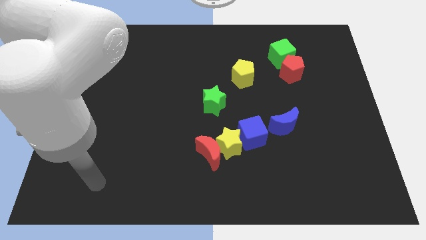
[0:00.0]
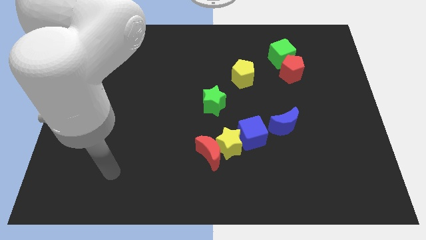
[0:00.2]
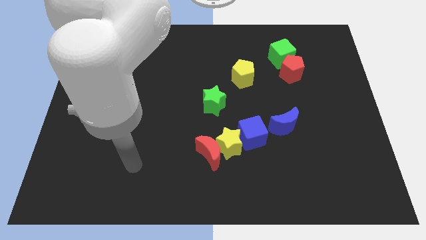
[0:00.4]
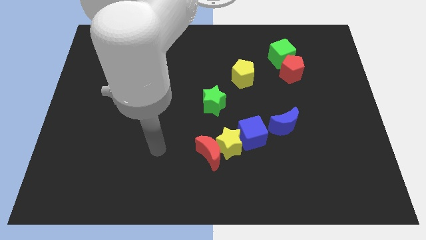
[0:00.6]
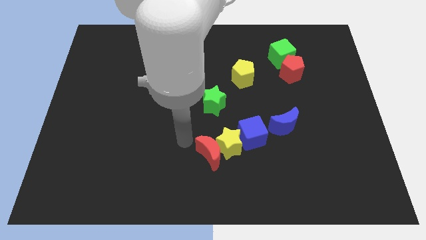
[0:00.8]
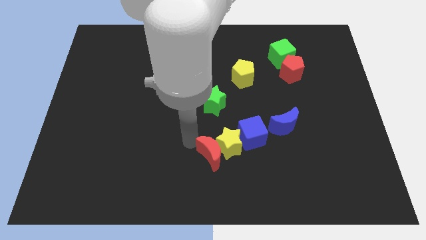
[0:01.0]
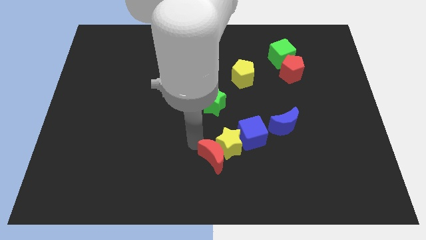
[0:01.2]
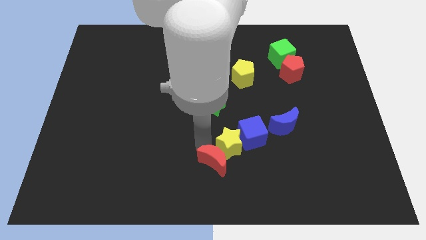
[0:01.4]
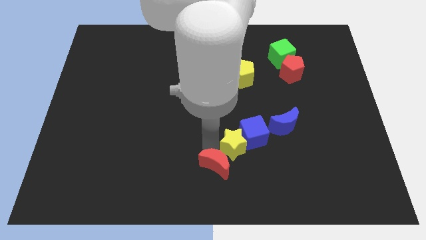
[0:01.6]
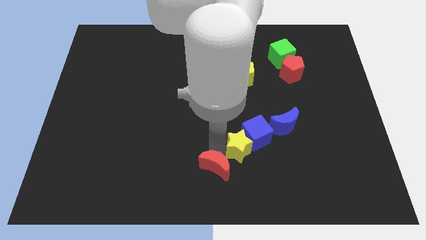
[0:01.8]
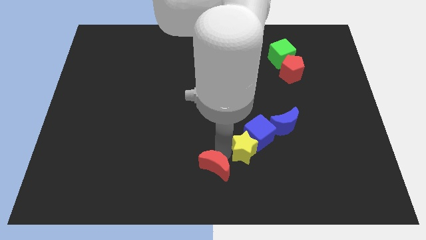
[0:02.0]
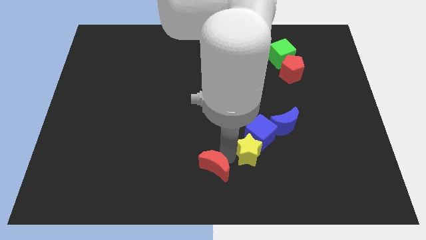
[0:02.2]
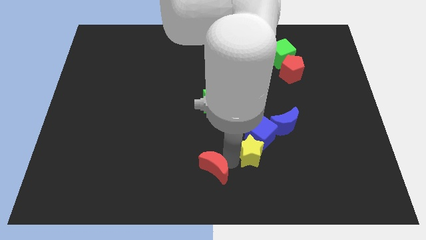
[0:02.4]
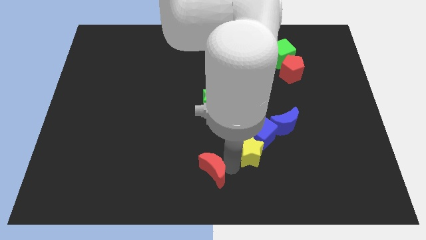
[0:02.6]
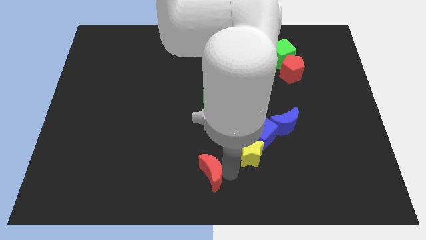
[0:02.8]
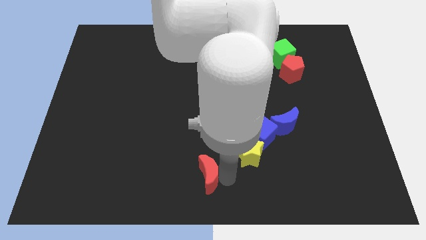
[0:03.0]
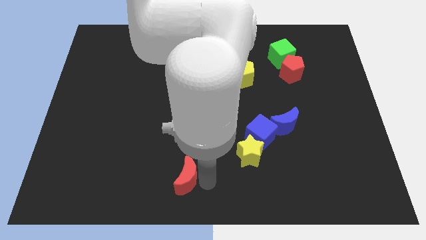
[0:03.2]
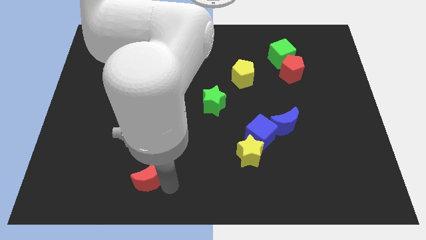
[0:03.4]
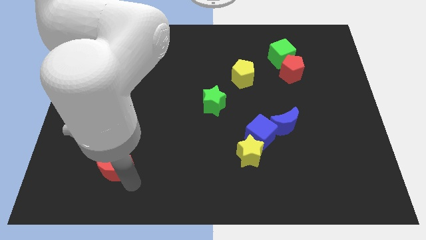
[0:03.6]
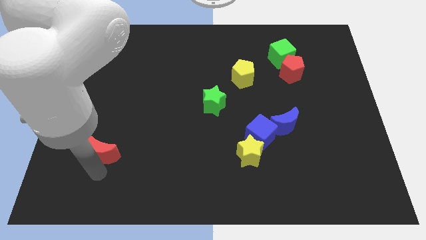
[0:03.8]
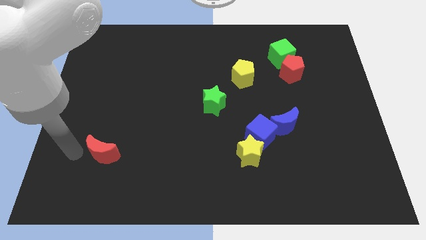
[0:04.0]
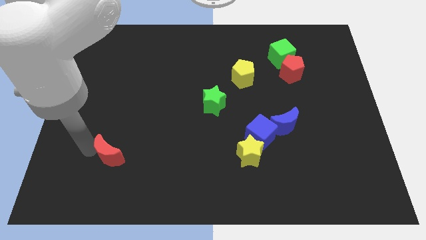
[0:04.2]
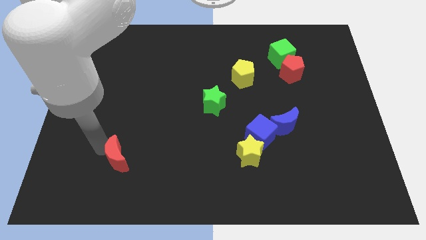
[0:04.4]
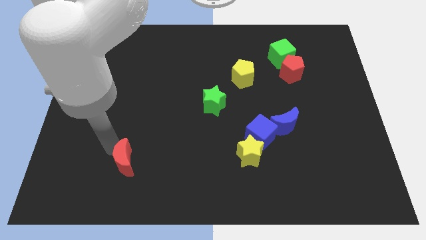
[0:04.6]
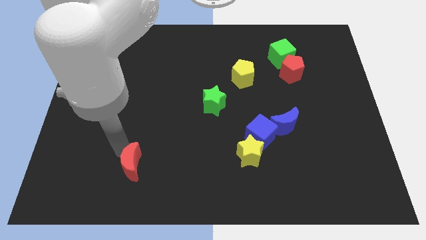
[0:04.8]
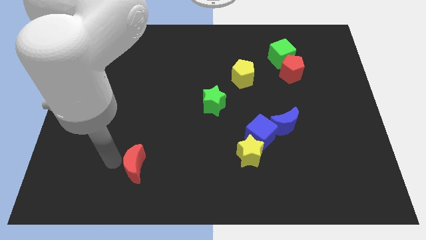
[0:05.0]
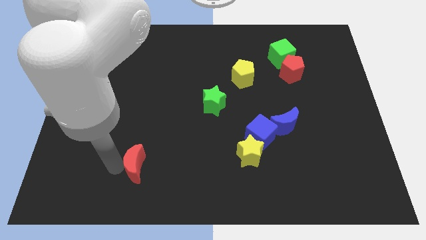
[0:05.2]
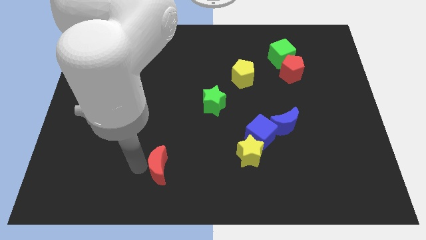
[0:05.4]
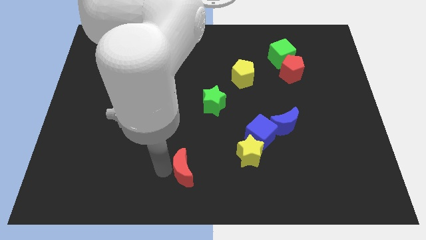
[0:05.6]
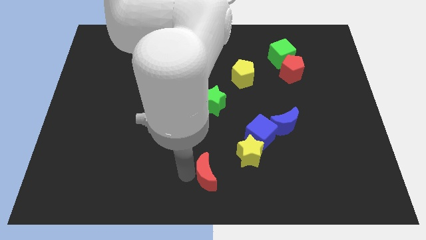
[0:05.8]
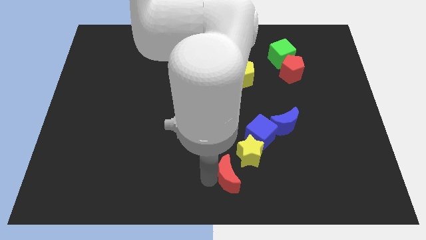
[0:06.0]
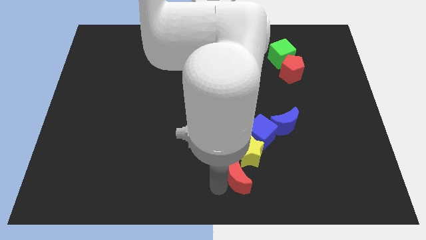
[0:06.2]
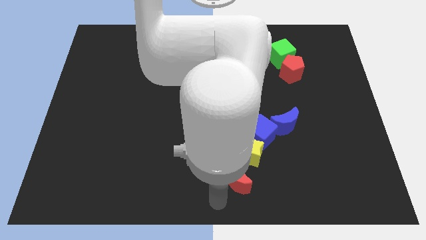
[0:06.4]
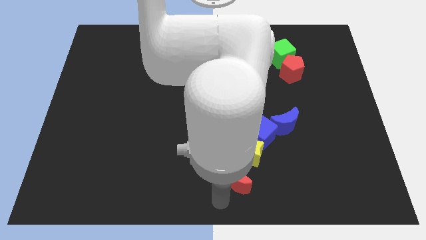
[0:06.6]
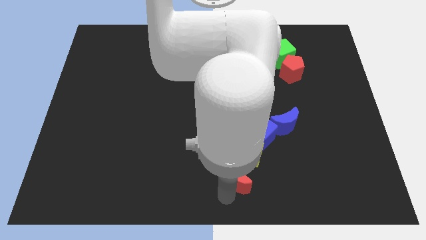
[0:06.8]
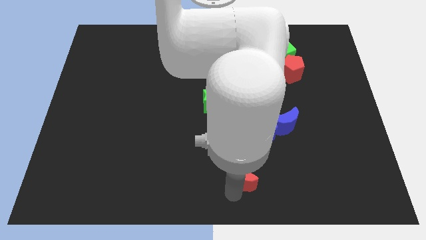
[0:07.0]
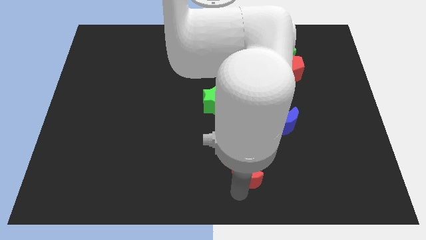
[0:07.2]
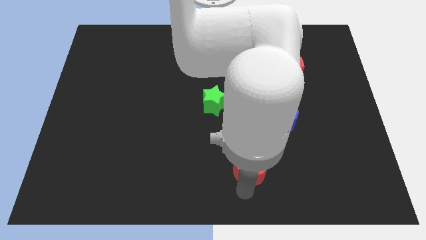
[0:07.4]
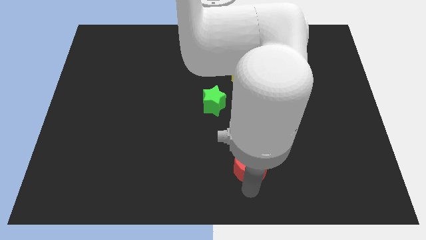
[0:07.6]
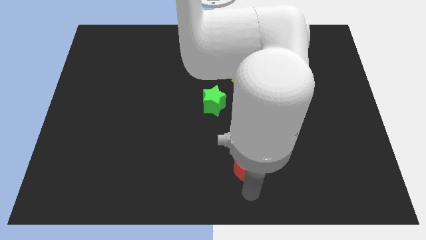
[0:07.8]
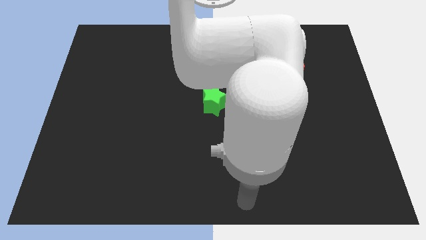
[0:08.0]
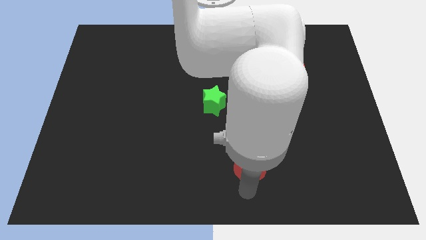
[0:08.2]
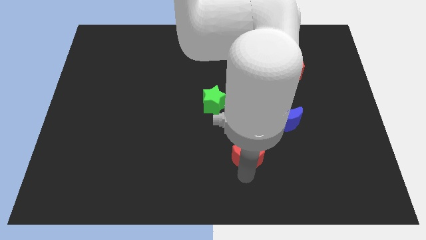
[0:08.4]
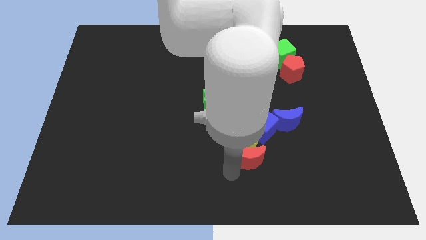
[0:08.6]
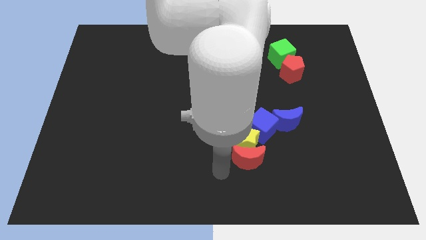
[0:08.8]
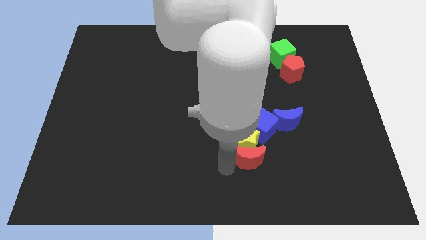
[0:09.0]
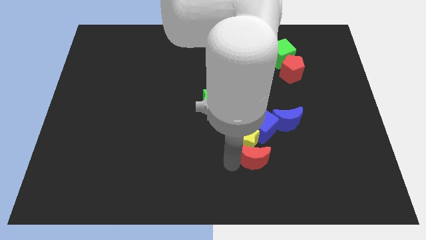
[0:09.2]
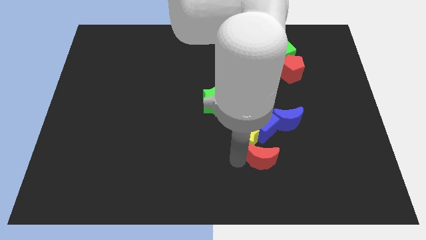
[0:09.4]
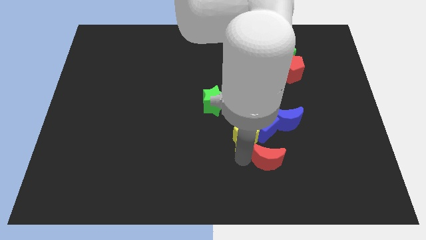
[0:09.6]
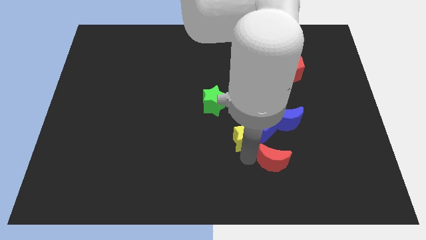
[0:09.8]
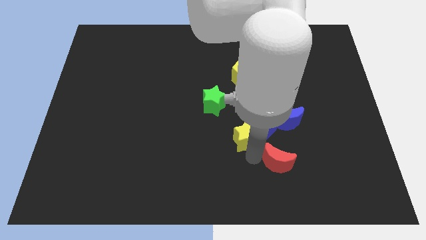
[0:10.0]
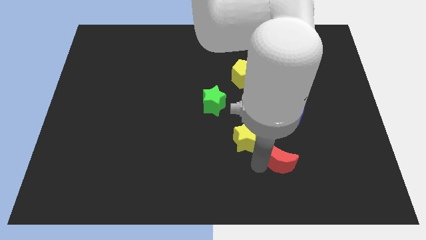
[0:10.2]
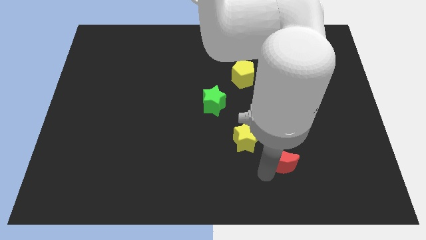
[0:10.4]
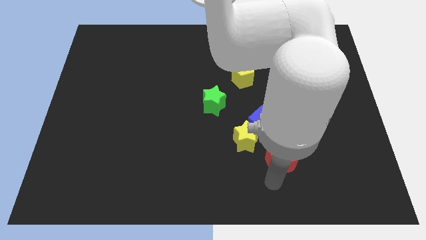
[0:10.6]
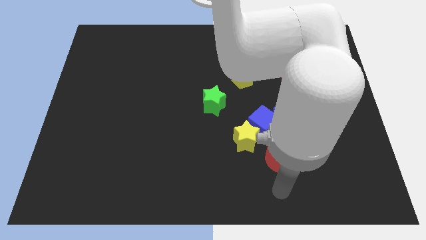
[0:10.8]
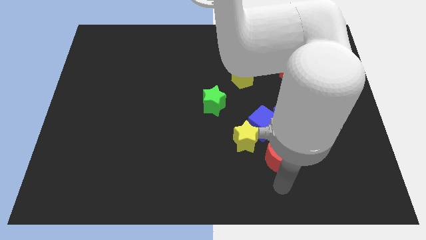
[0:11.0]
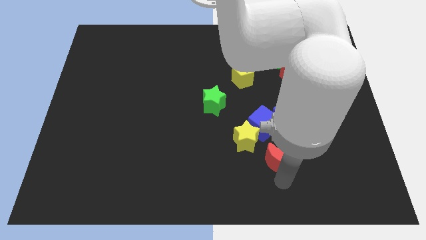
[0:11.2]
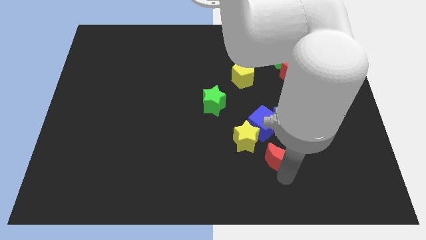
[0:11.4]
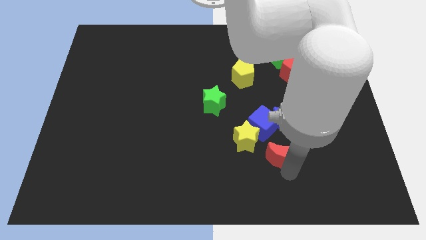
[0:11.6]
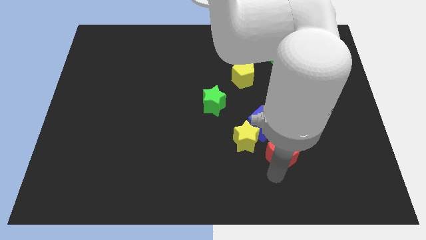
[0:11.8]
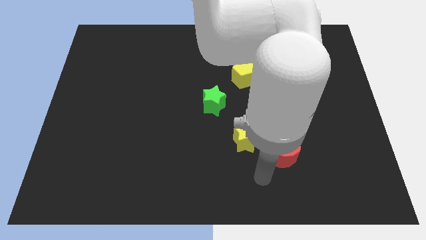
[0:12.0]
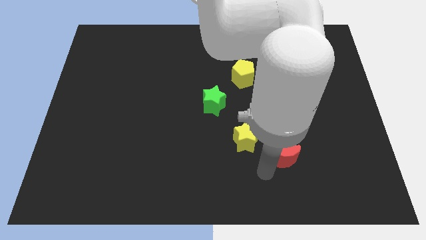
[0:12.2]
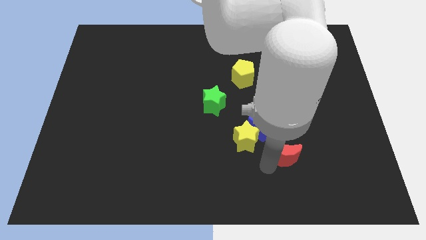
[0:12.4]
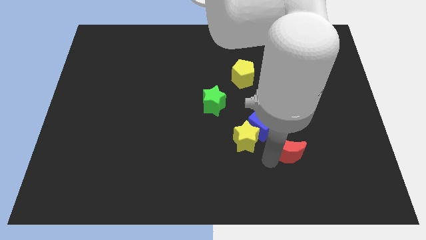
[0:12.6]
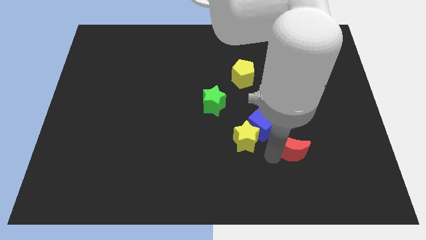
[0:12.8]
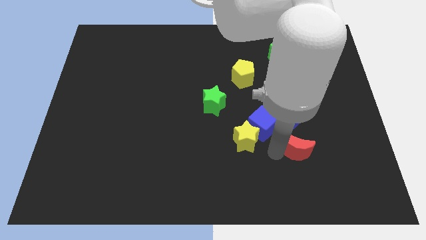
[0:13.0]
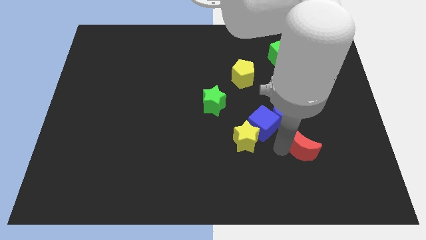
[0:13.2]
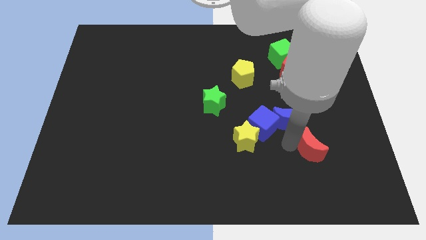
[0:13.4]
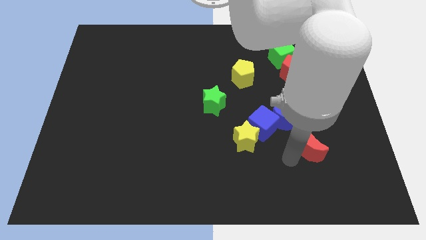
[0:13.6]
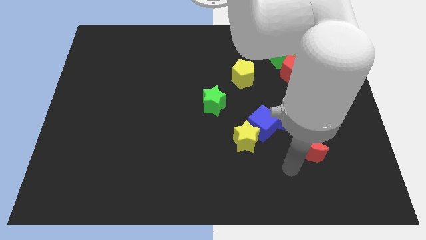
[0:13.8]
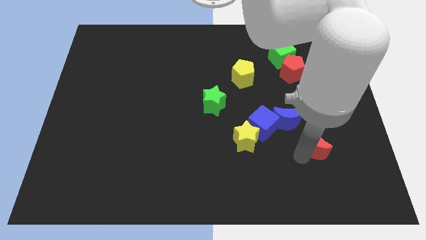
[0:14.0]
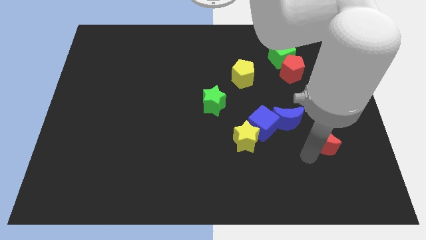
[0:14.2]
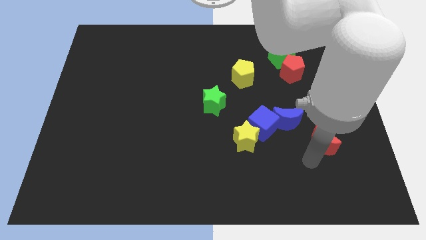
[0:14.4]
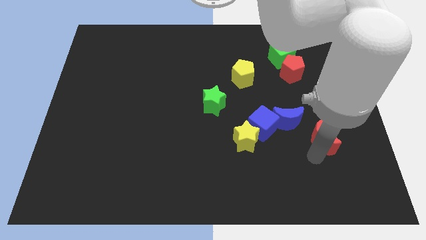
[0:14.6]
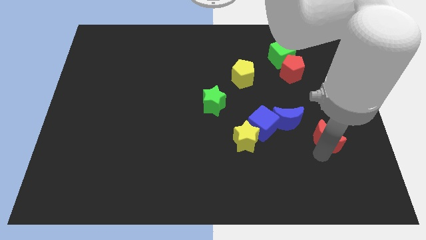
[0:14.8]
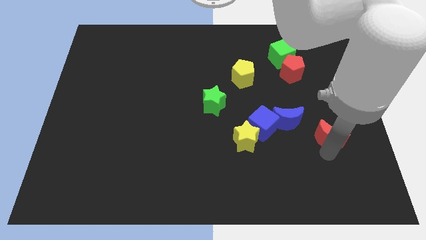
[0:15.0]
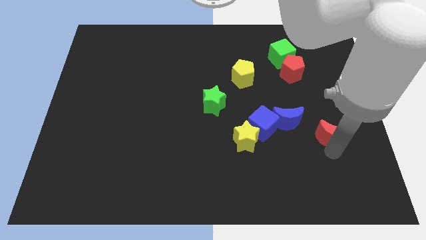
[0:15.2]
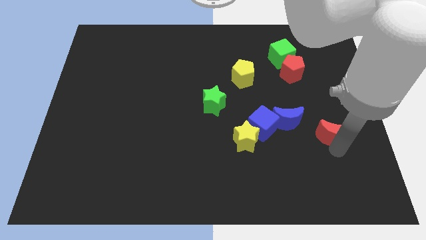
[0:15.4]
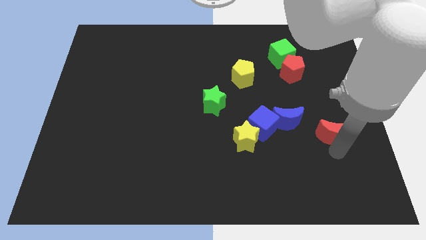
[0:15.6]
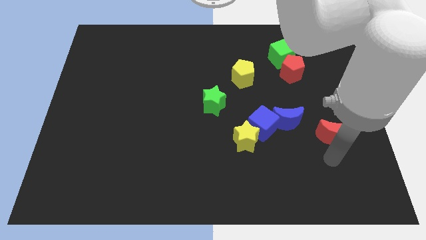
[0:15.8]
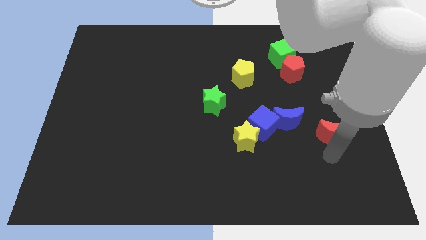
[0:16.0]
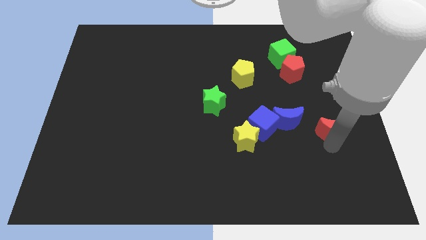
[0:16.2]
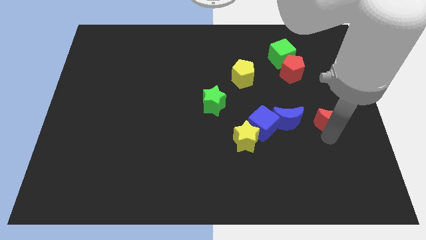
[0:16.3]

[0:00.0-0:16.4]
push the red moon to the right side of the board
